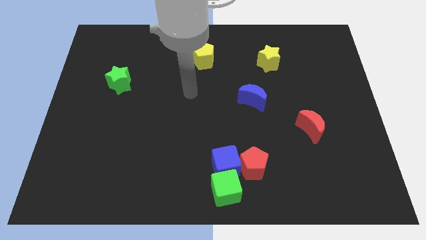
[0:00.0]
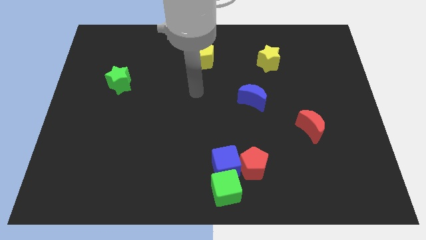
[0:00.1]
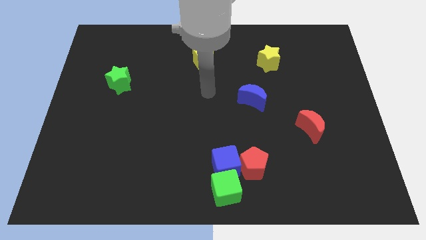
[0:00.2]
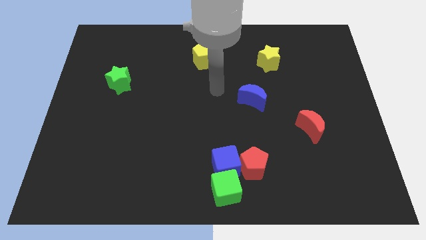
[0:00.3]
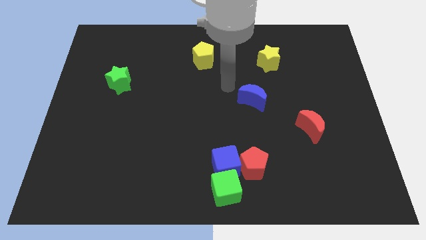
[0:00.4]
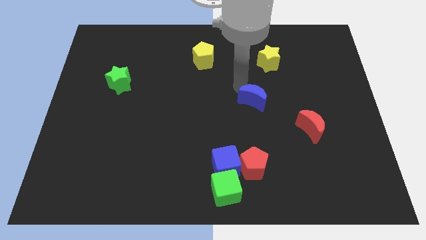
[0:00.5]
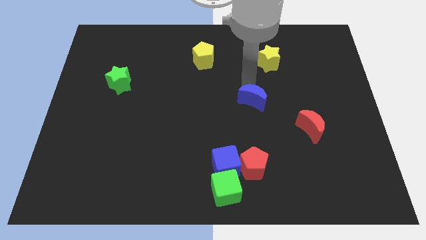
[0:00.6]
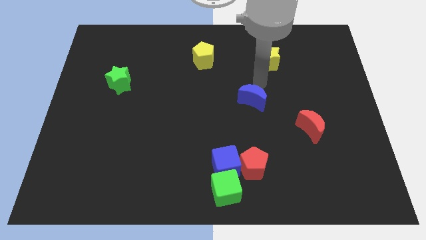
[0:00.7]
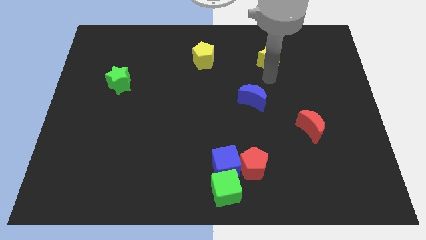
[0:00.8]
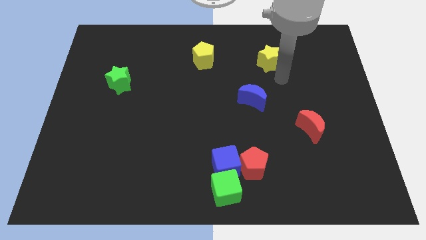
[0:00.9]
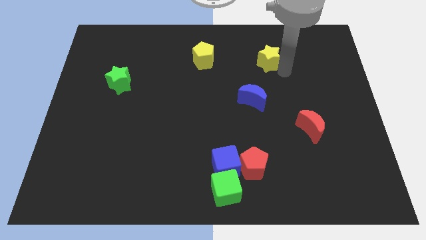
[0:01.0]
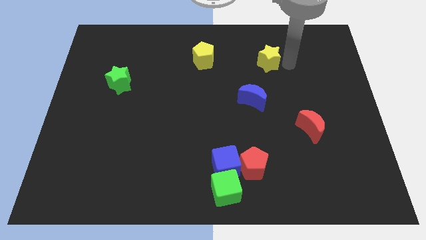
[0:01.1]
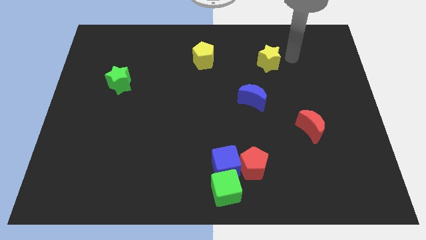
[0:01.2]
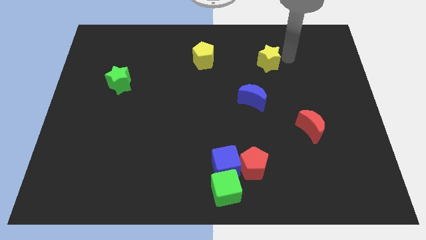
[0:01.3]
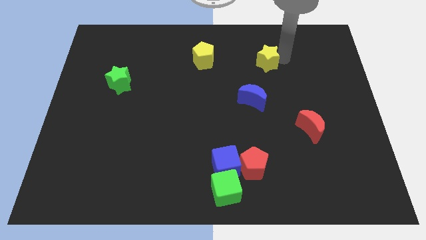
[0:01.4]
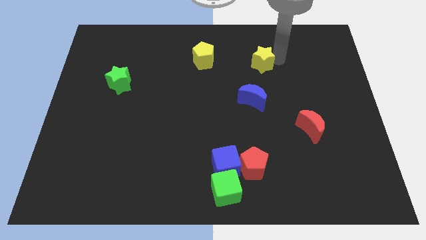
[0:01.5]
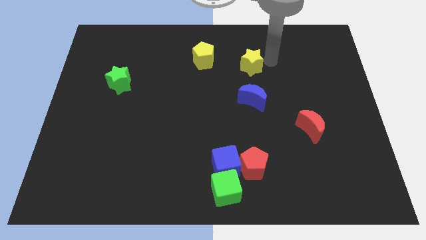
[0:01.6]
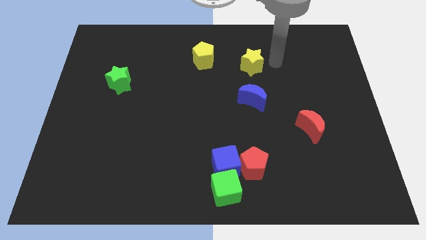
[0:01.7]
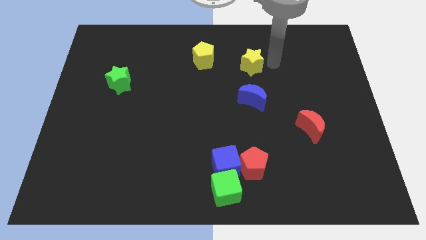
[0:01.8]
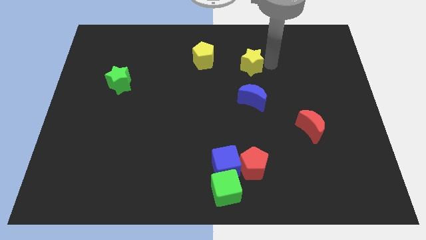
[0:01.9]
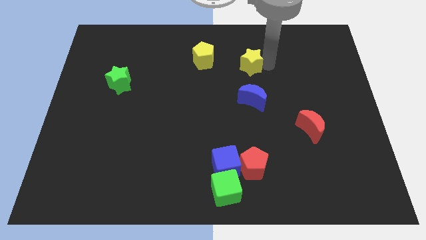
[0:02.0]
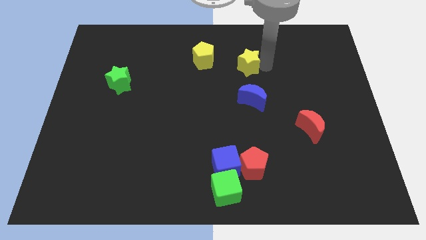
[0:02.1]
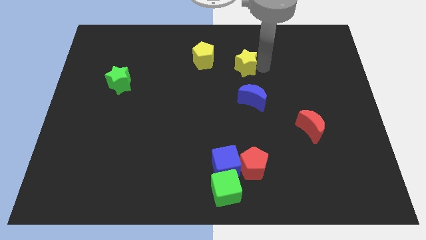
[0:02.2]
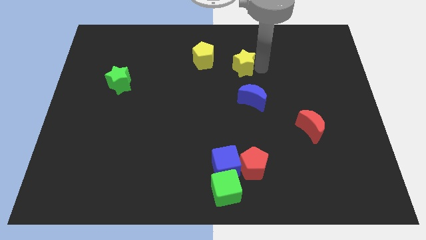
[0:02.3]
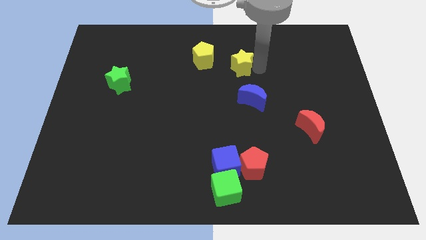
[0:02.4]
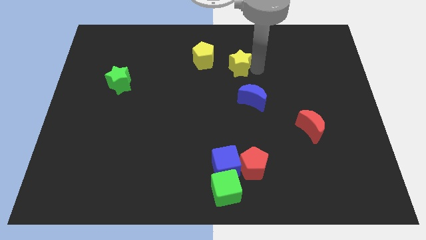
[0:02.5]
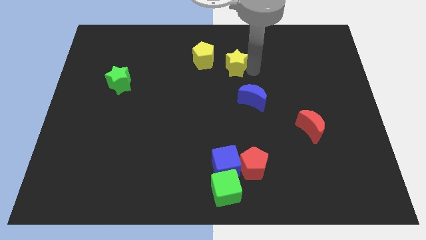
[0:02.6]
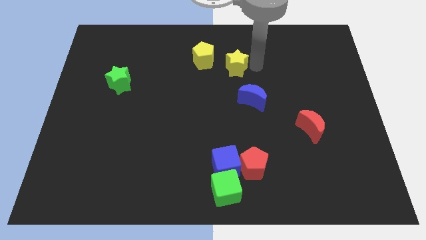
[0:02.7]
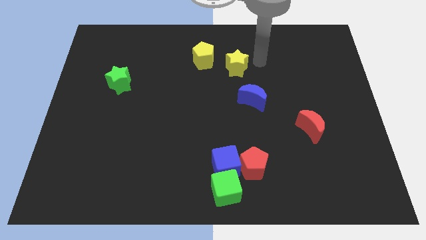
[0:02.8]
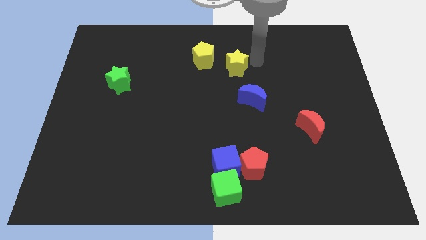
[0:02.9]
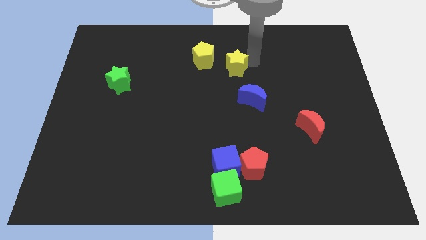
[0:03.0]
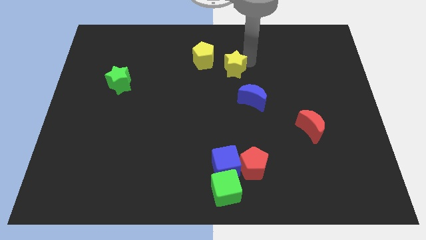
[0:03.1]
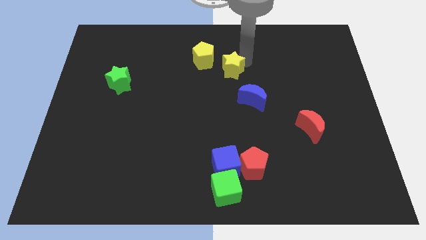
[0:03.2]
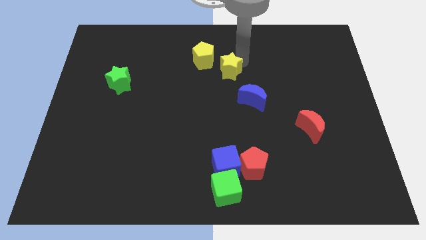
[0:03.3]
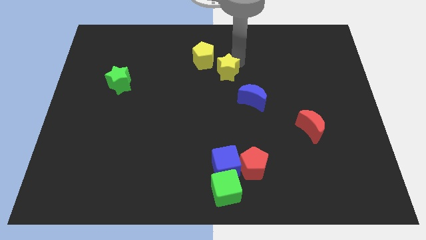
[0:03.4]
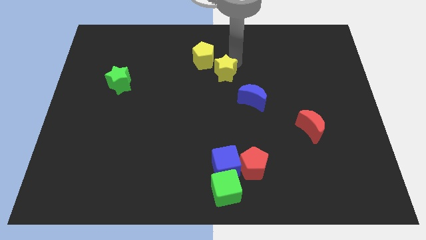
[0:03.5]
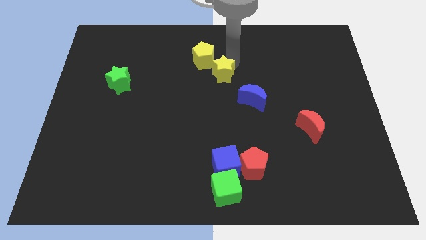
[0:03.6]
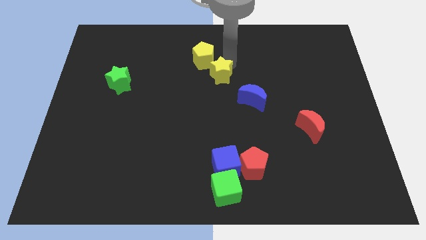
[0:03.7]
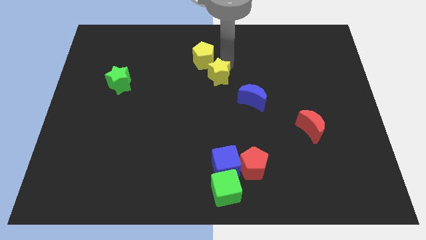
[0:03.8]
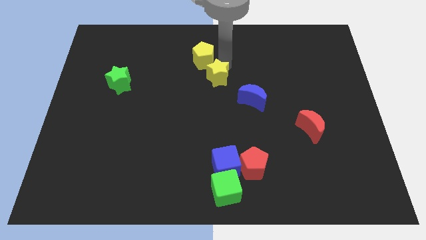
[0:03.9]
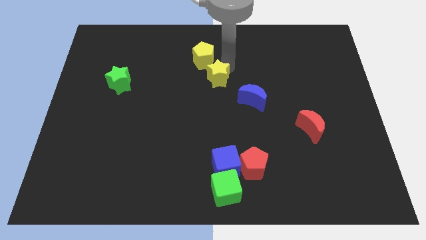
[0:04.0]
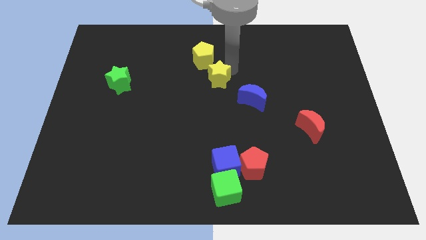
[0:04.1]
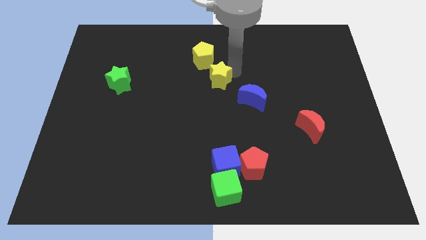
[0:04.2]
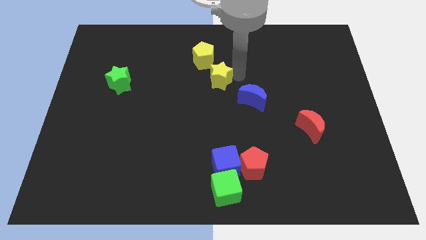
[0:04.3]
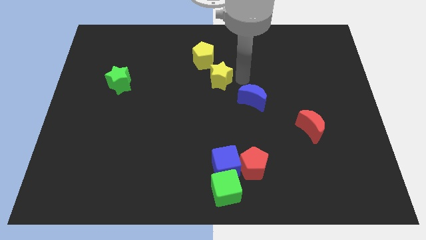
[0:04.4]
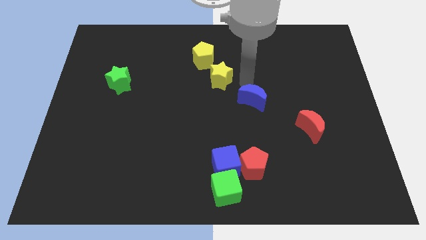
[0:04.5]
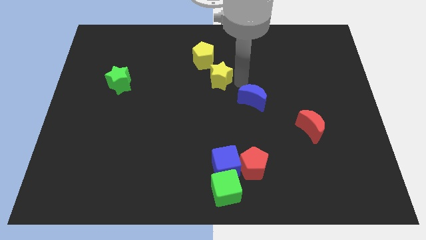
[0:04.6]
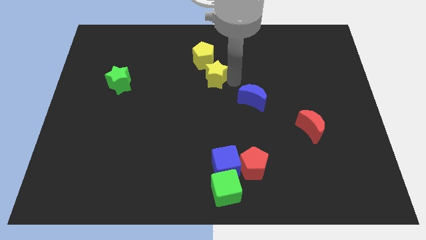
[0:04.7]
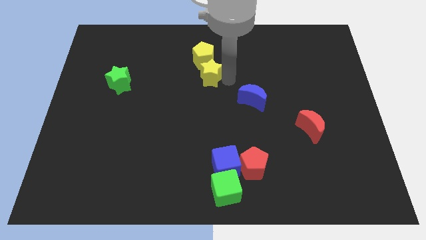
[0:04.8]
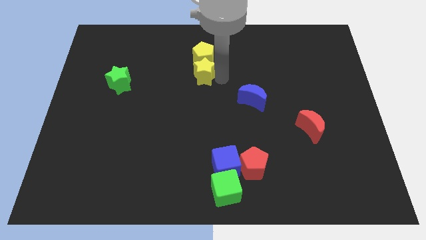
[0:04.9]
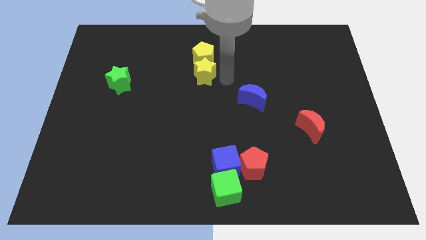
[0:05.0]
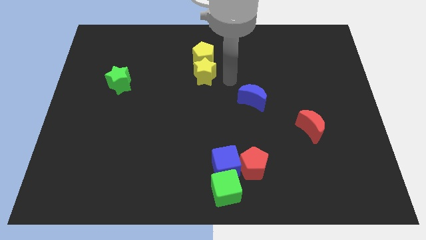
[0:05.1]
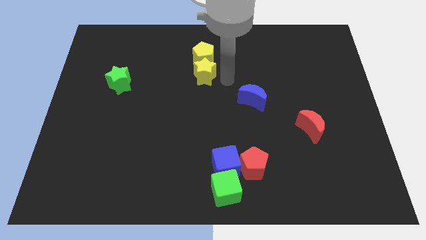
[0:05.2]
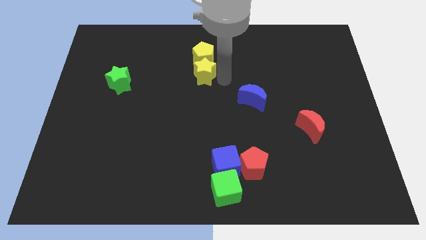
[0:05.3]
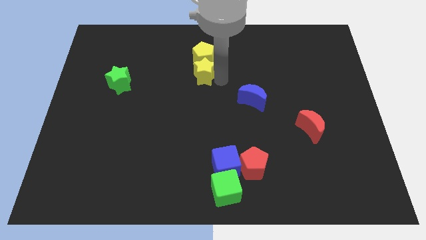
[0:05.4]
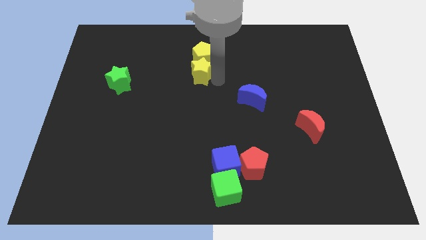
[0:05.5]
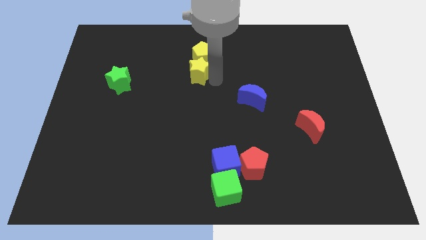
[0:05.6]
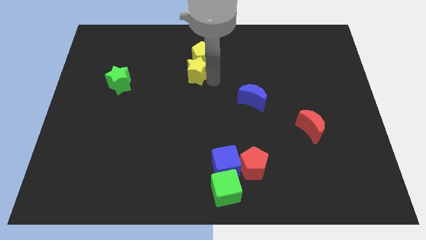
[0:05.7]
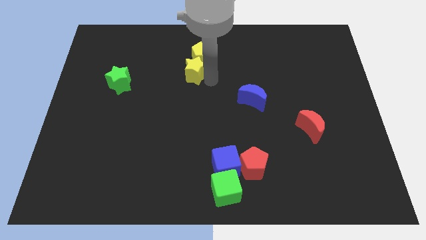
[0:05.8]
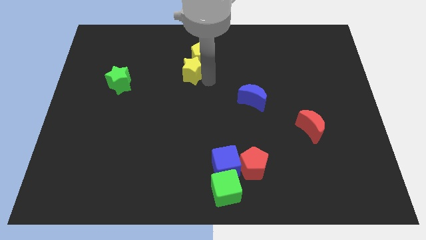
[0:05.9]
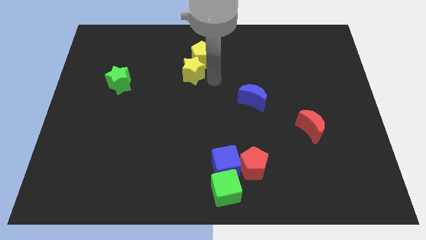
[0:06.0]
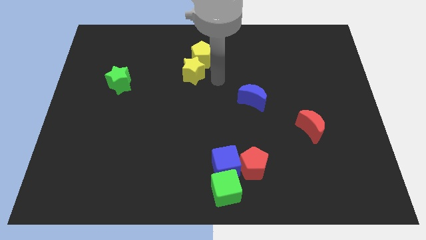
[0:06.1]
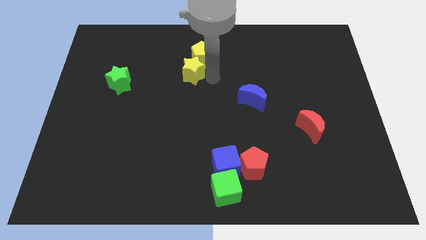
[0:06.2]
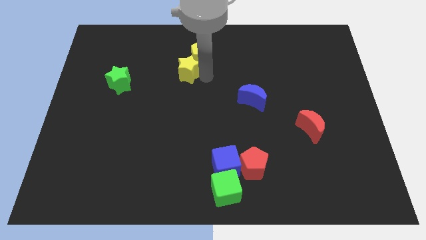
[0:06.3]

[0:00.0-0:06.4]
slide the yellow star to the left

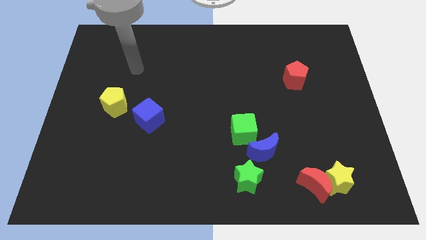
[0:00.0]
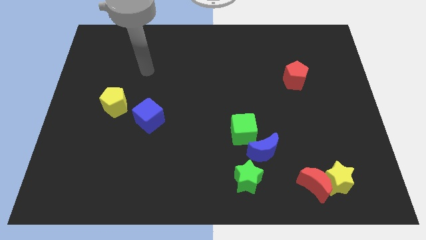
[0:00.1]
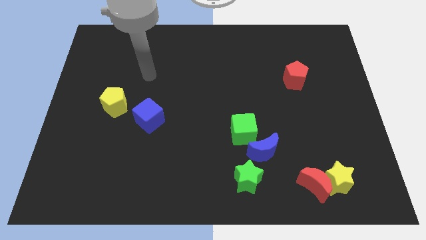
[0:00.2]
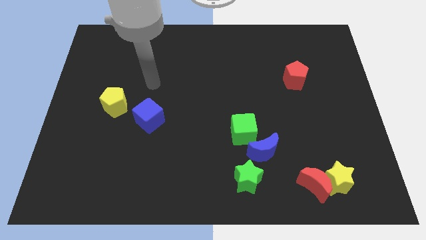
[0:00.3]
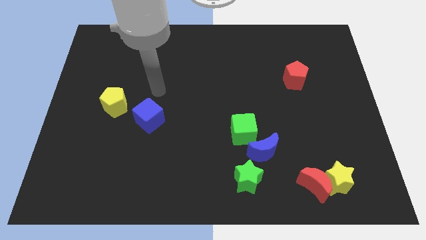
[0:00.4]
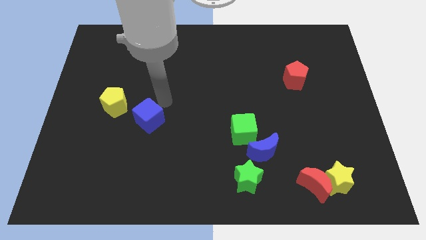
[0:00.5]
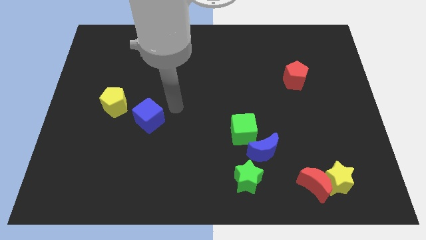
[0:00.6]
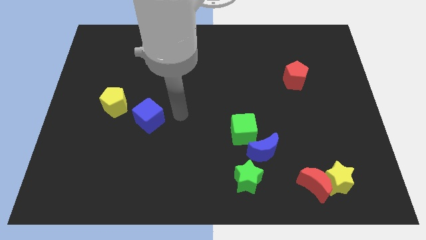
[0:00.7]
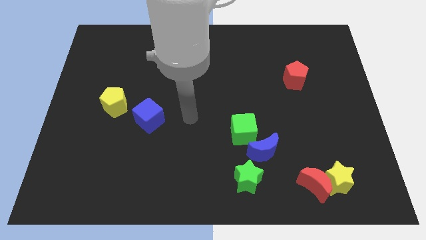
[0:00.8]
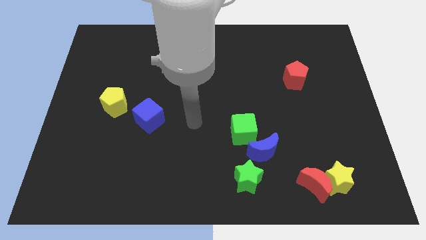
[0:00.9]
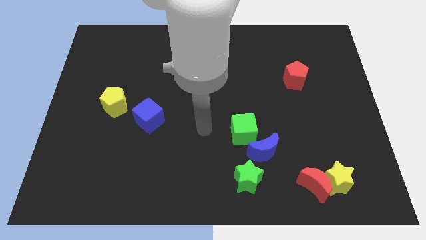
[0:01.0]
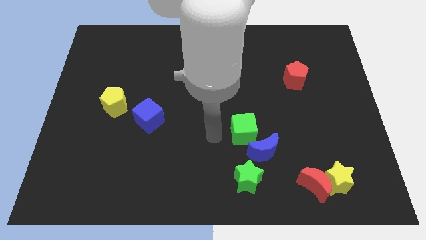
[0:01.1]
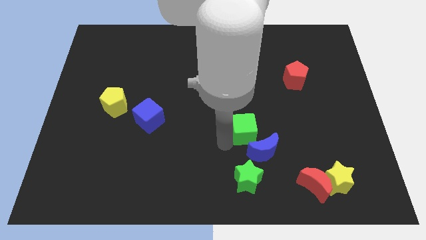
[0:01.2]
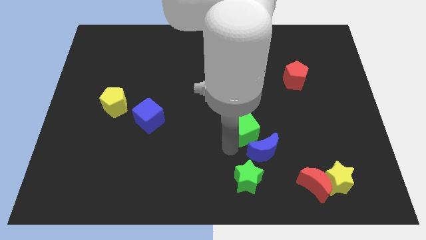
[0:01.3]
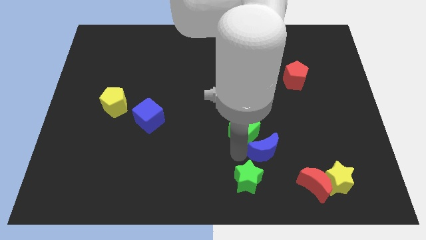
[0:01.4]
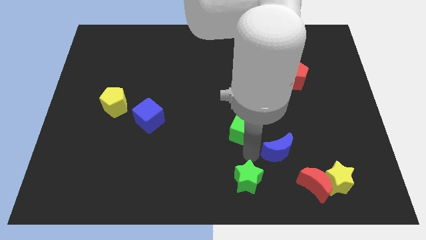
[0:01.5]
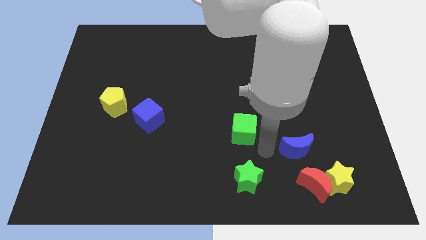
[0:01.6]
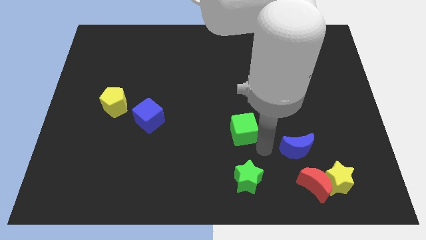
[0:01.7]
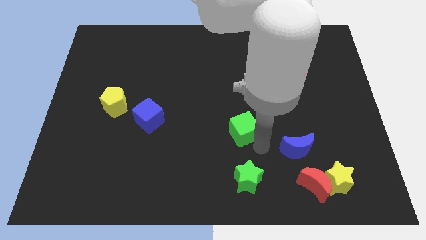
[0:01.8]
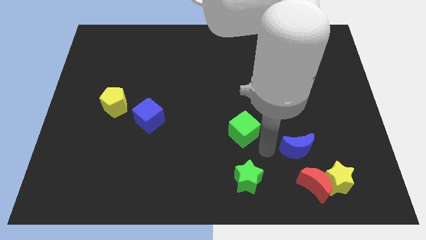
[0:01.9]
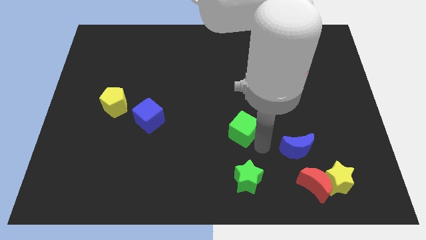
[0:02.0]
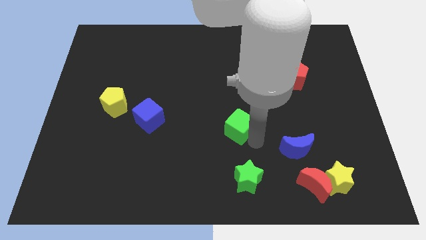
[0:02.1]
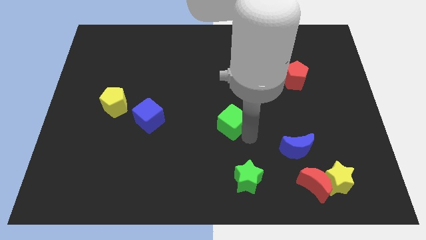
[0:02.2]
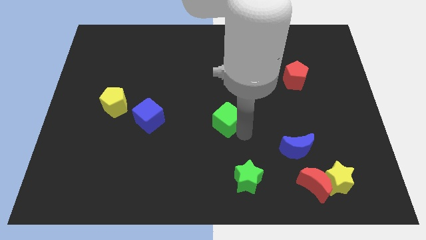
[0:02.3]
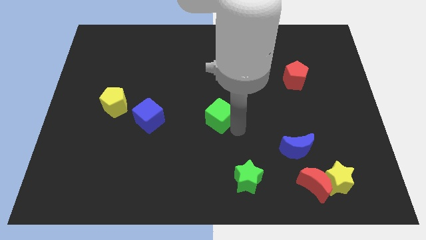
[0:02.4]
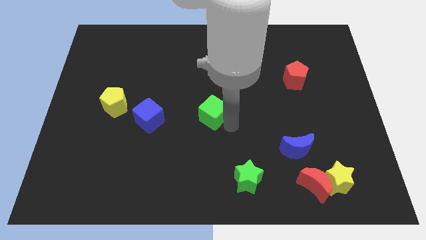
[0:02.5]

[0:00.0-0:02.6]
push the green cube a bit up and then to the left
